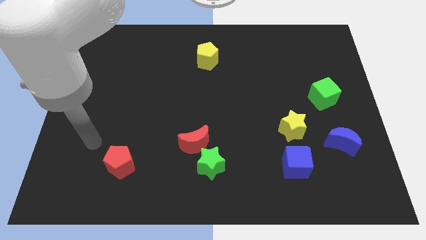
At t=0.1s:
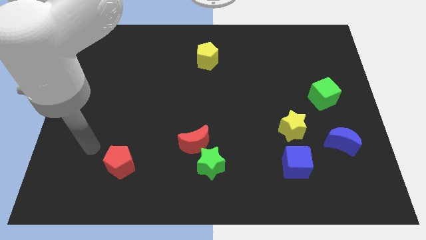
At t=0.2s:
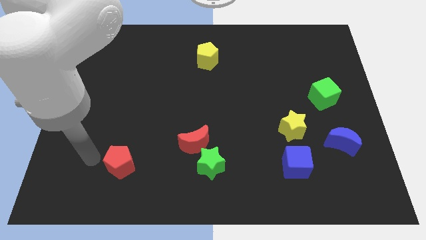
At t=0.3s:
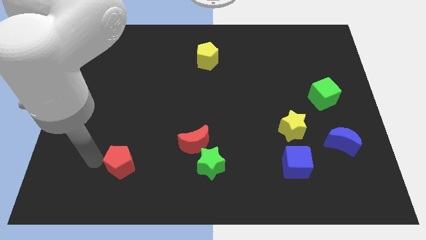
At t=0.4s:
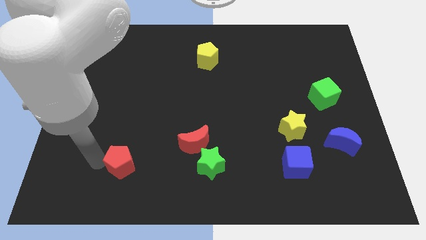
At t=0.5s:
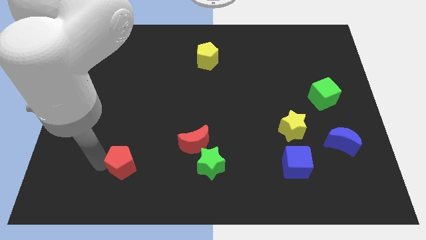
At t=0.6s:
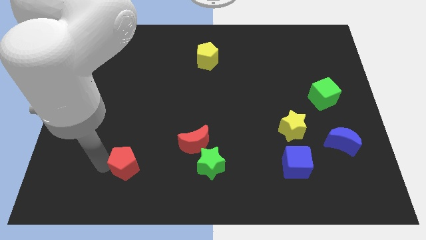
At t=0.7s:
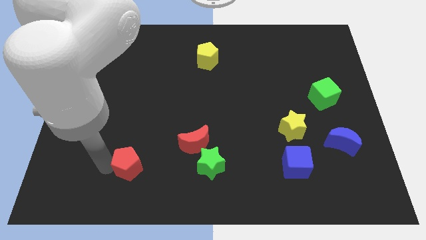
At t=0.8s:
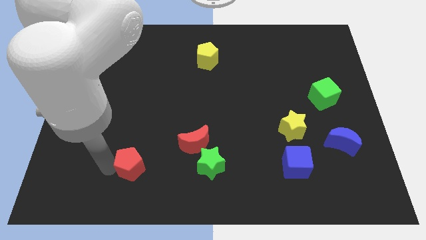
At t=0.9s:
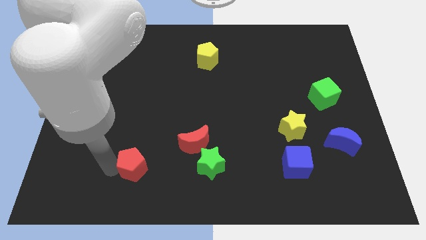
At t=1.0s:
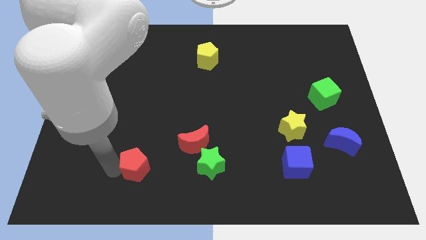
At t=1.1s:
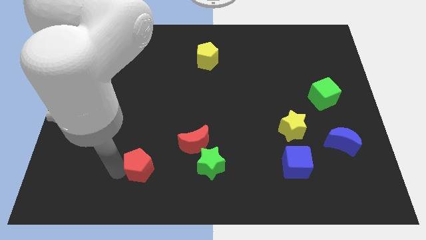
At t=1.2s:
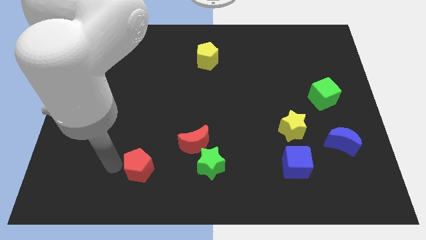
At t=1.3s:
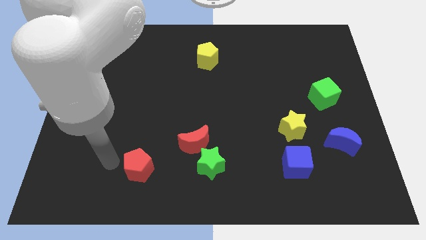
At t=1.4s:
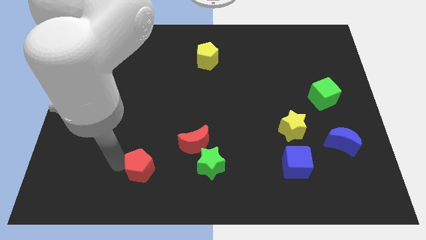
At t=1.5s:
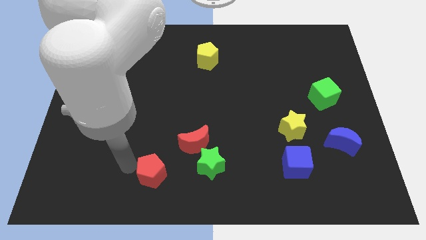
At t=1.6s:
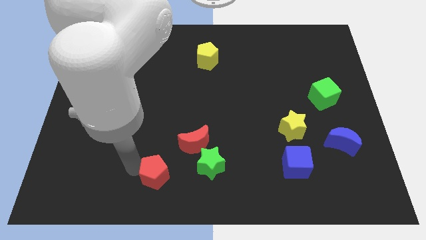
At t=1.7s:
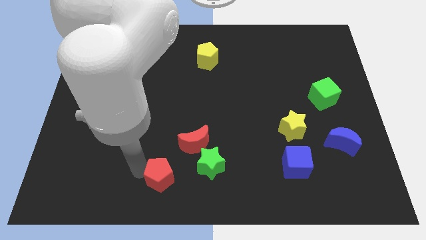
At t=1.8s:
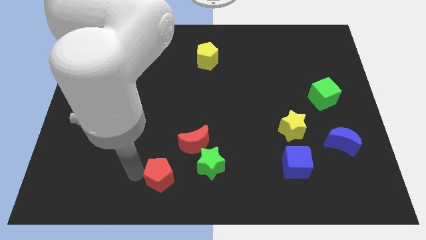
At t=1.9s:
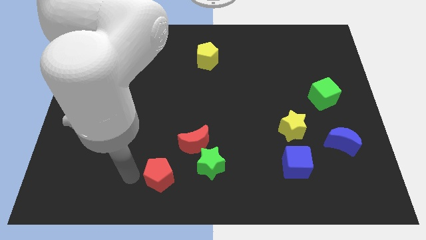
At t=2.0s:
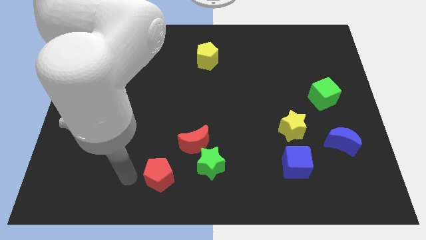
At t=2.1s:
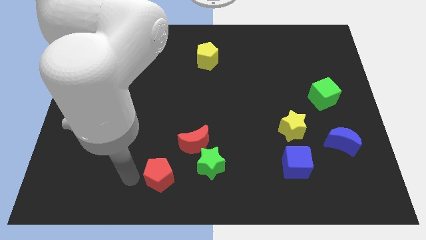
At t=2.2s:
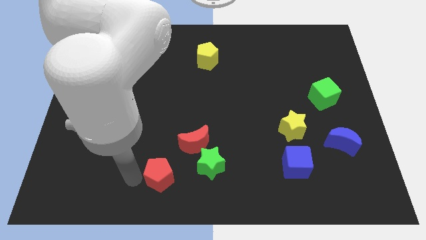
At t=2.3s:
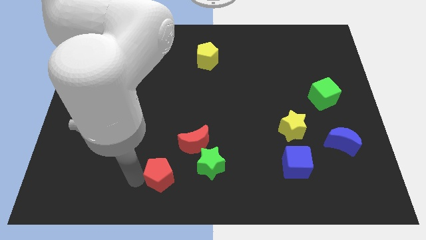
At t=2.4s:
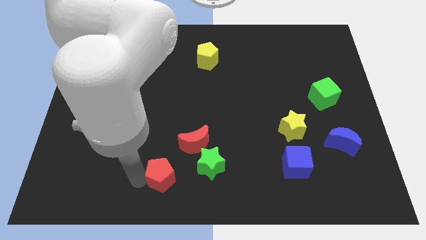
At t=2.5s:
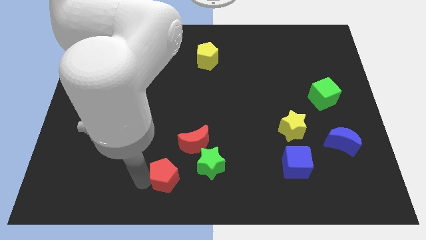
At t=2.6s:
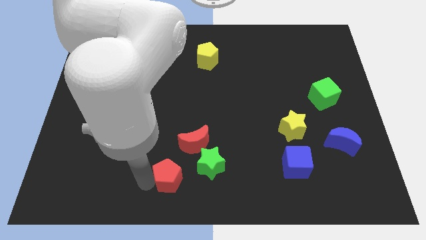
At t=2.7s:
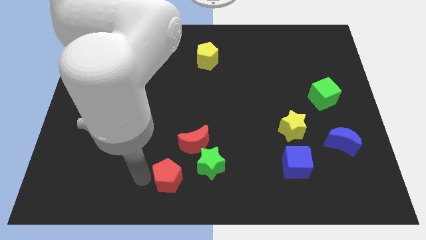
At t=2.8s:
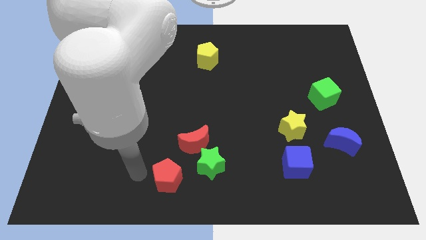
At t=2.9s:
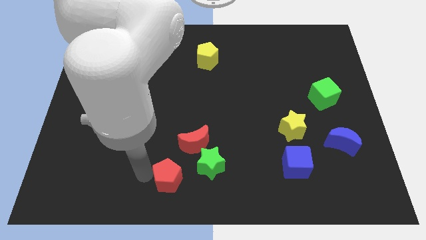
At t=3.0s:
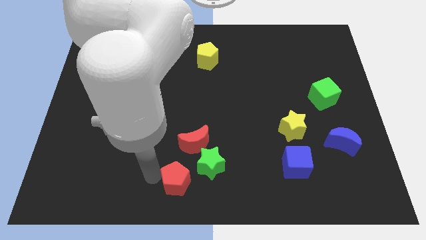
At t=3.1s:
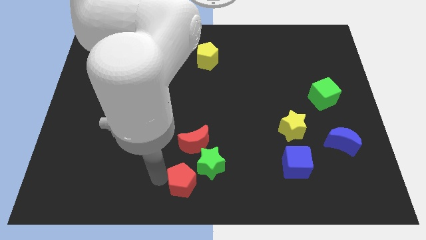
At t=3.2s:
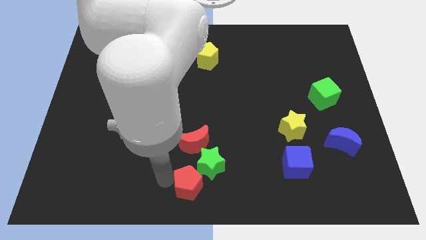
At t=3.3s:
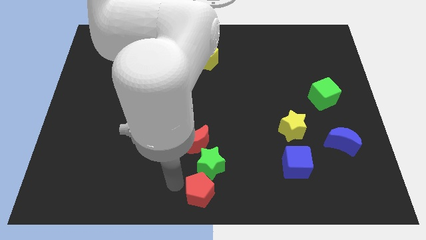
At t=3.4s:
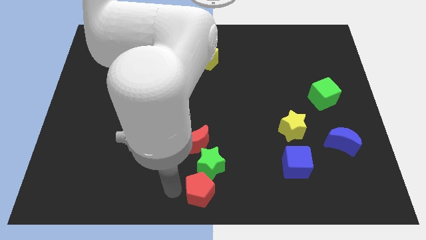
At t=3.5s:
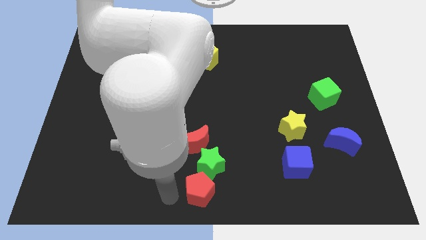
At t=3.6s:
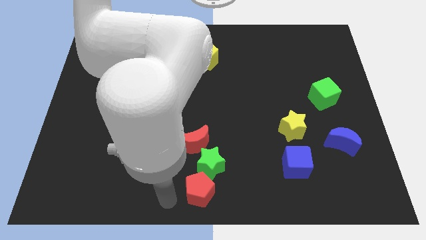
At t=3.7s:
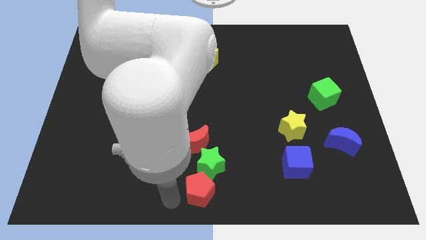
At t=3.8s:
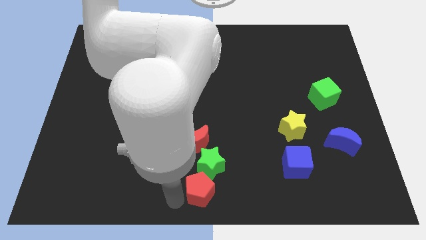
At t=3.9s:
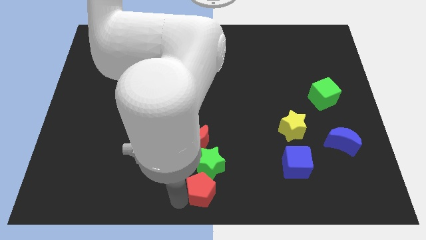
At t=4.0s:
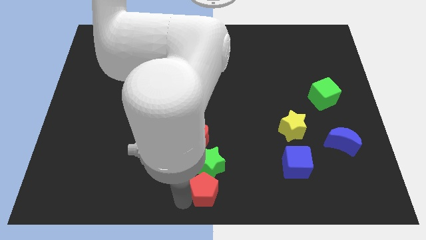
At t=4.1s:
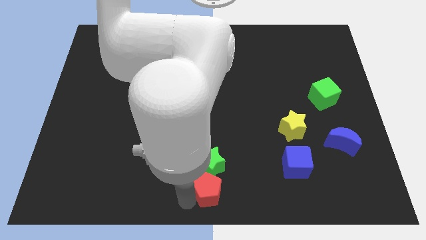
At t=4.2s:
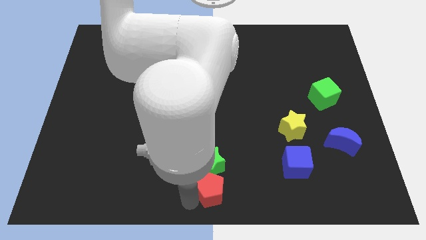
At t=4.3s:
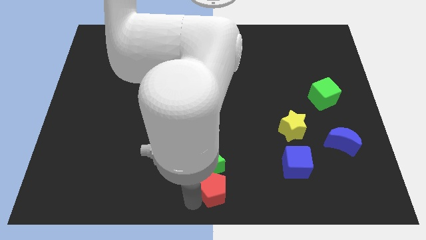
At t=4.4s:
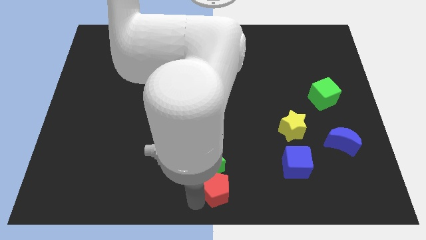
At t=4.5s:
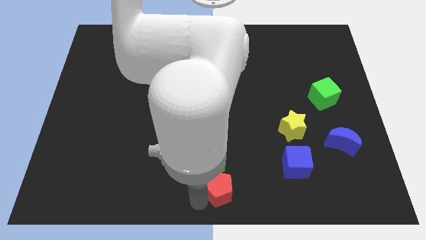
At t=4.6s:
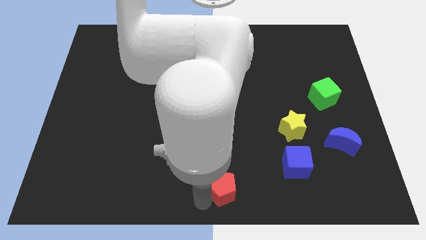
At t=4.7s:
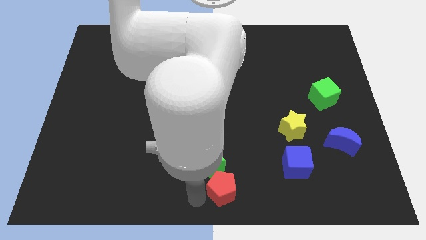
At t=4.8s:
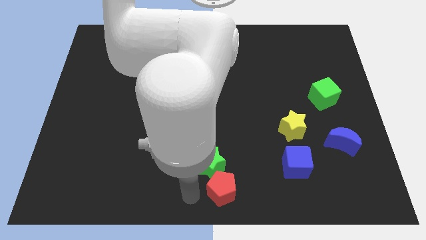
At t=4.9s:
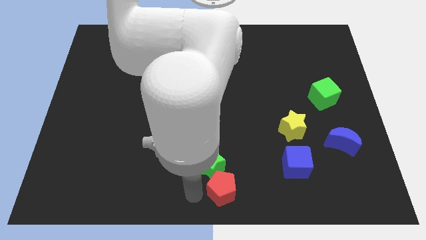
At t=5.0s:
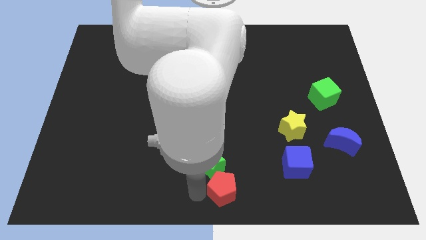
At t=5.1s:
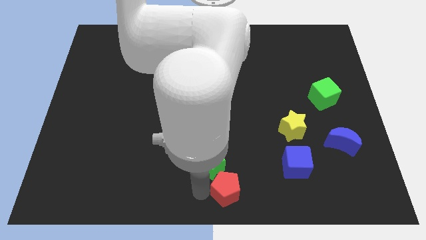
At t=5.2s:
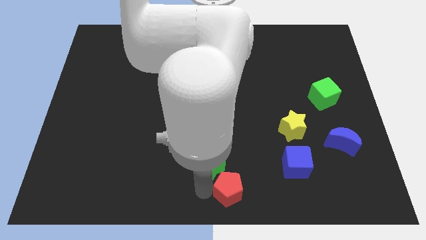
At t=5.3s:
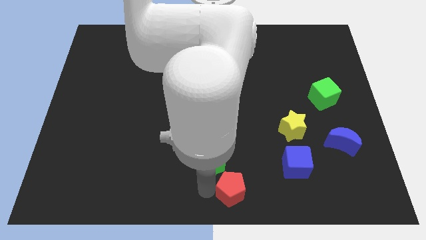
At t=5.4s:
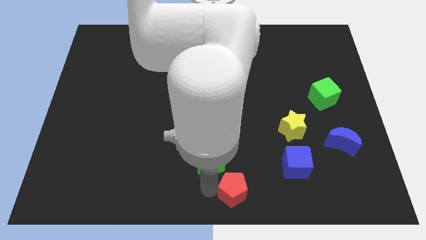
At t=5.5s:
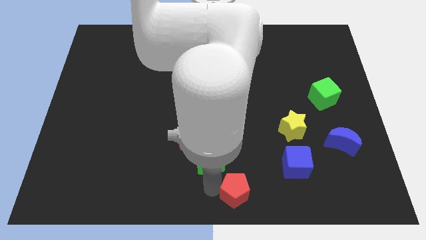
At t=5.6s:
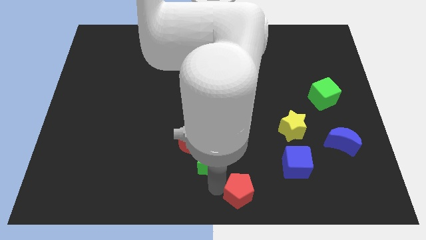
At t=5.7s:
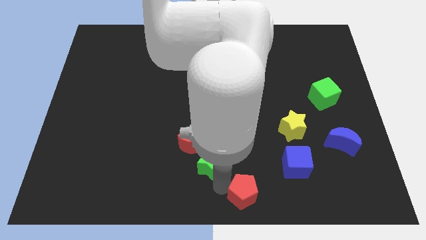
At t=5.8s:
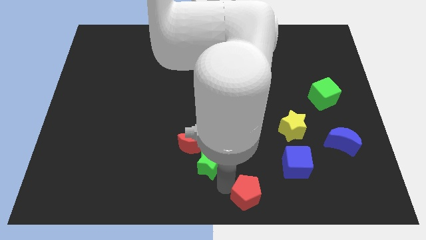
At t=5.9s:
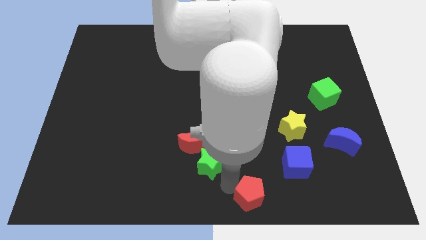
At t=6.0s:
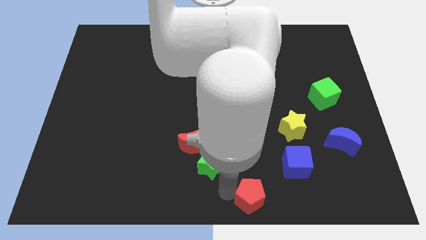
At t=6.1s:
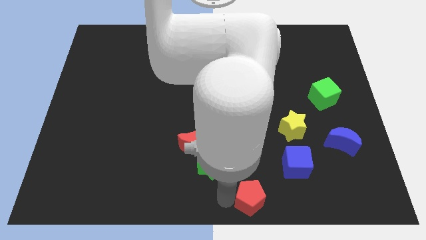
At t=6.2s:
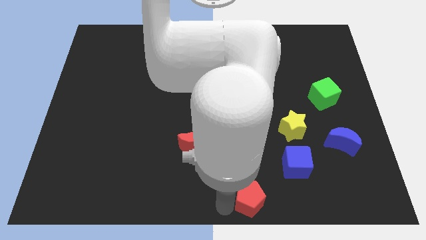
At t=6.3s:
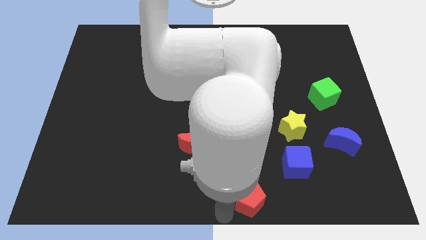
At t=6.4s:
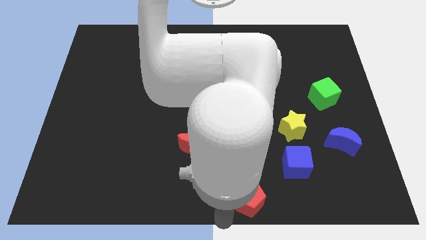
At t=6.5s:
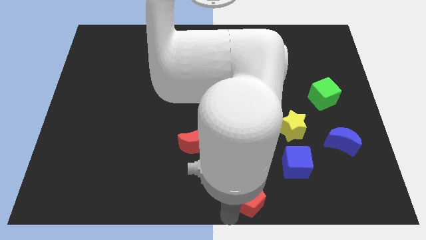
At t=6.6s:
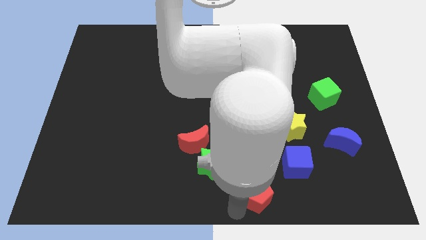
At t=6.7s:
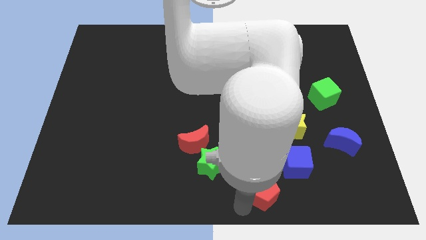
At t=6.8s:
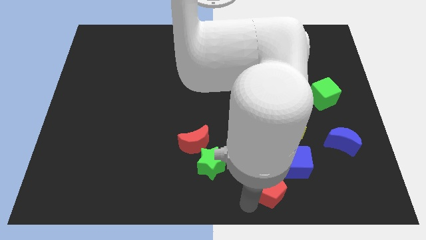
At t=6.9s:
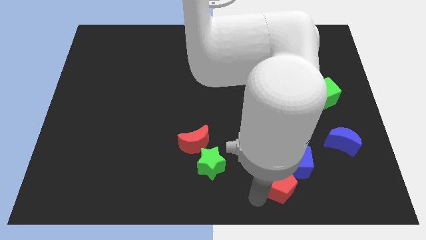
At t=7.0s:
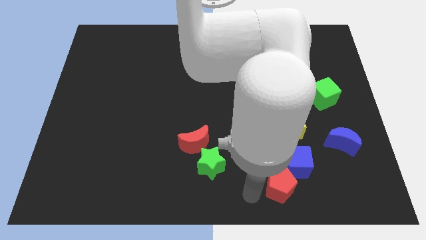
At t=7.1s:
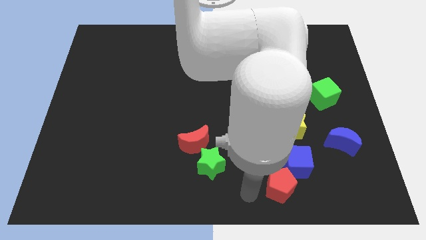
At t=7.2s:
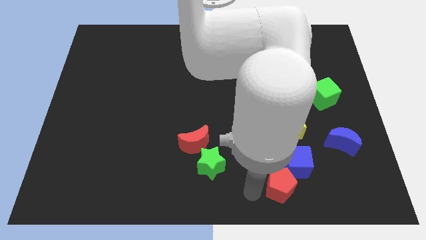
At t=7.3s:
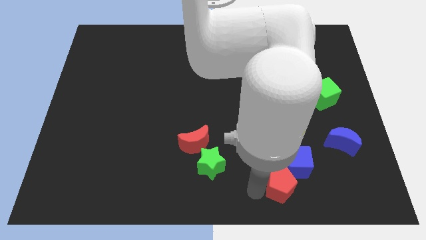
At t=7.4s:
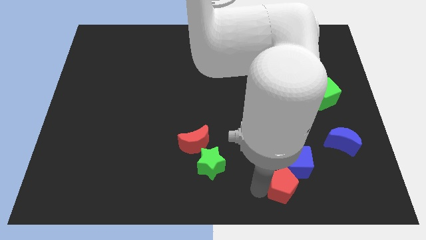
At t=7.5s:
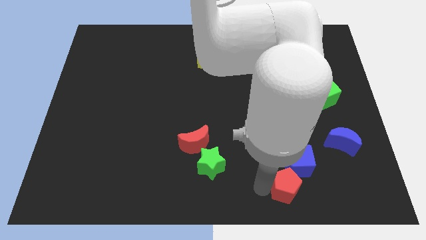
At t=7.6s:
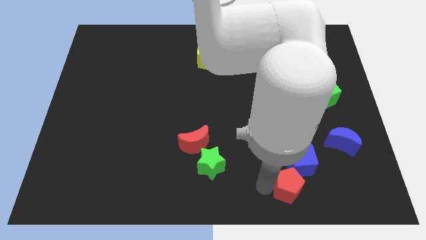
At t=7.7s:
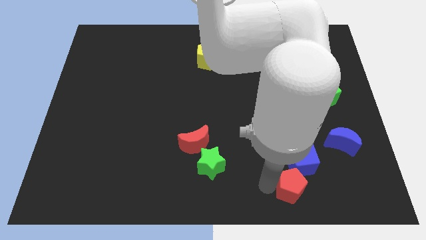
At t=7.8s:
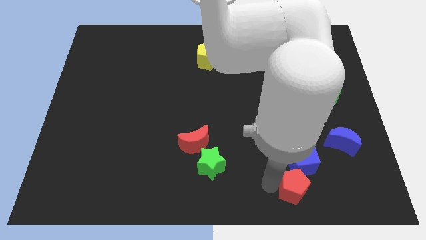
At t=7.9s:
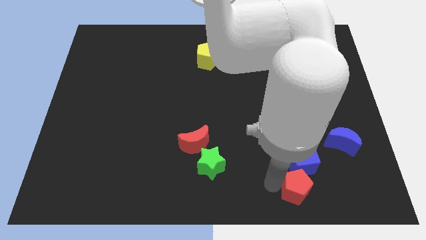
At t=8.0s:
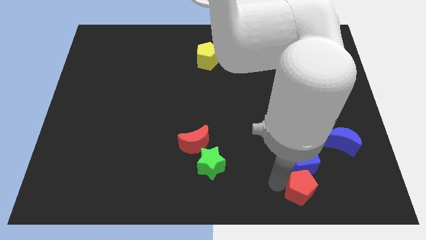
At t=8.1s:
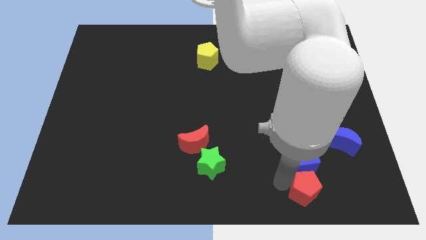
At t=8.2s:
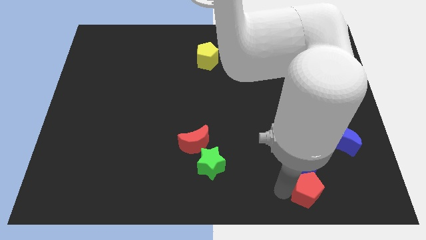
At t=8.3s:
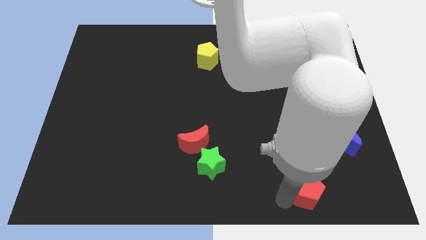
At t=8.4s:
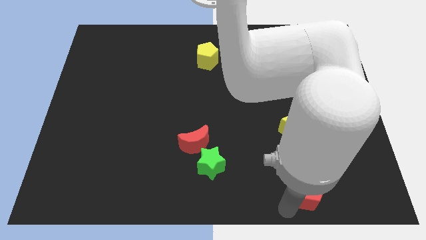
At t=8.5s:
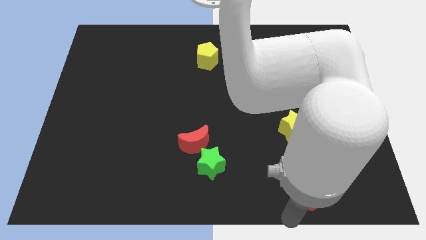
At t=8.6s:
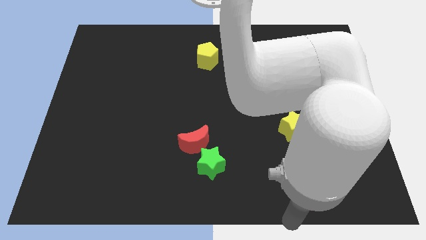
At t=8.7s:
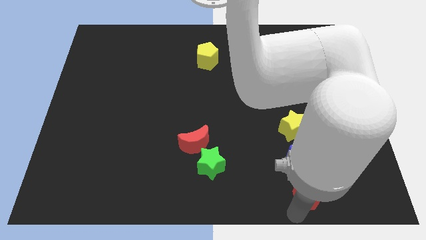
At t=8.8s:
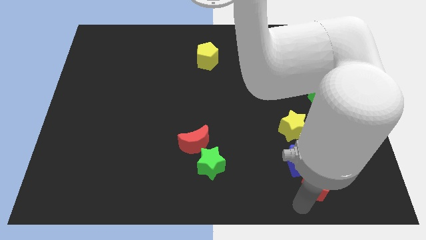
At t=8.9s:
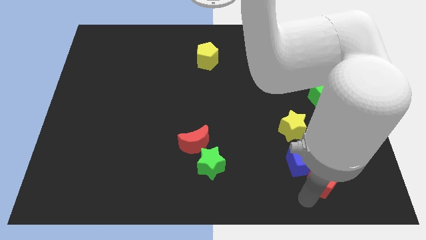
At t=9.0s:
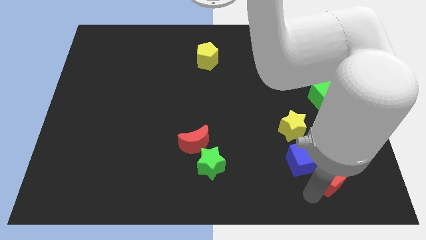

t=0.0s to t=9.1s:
put the red pentagon just right of the blue cube
